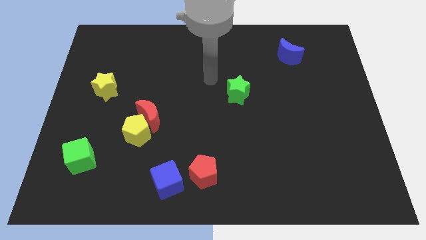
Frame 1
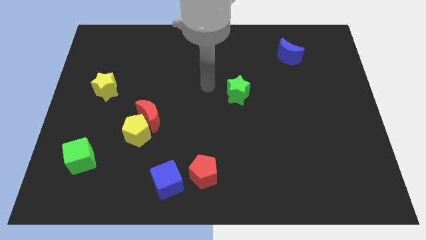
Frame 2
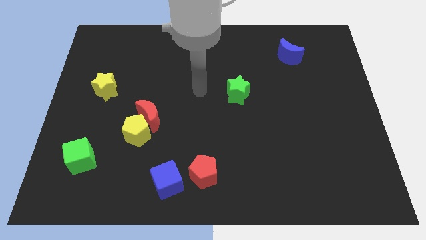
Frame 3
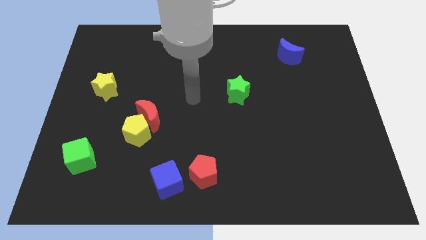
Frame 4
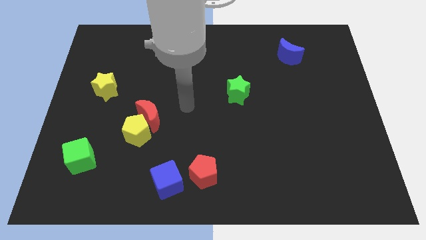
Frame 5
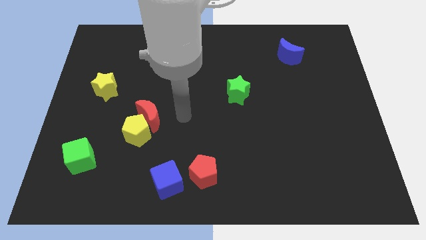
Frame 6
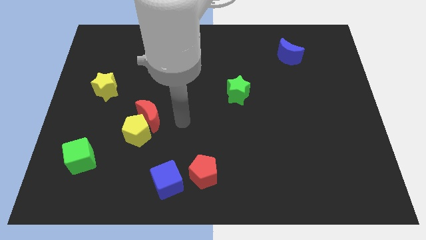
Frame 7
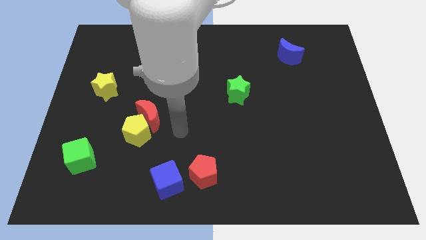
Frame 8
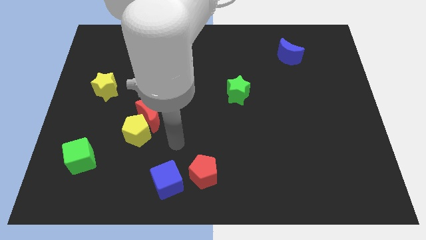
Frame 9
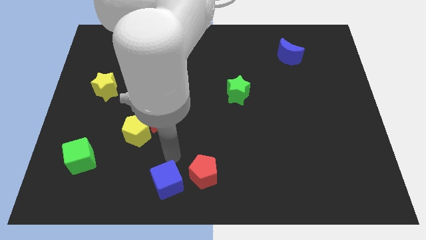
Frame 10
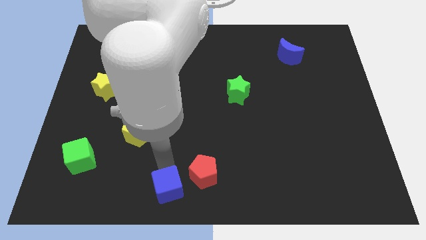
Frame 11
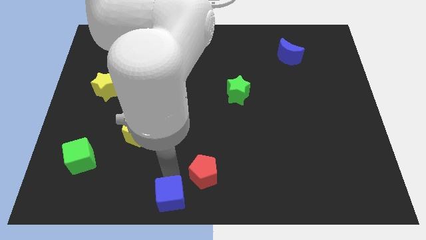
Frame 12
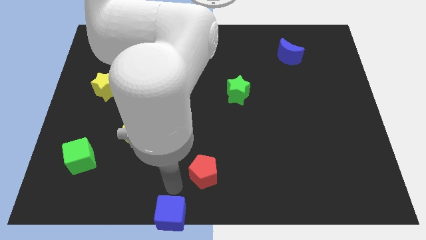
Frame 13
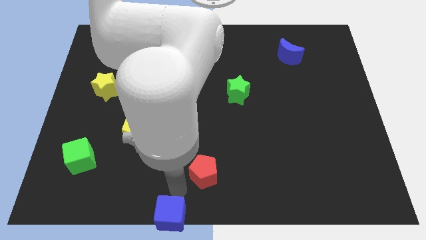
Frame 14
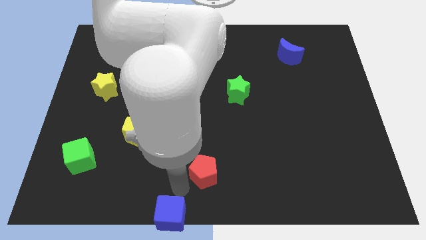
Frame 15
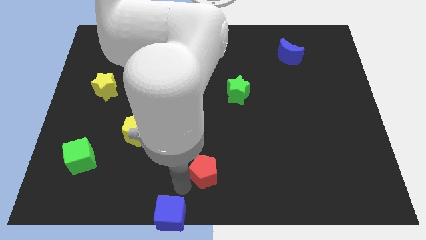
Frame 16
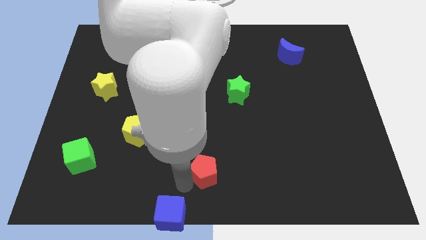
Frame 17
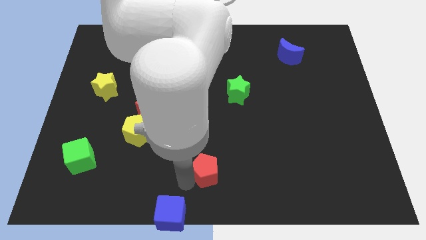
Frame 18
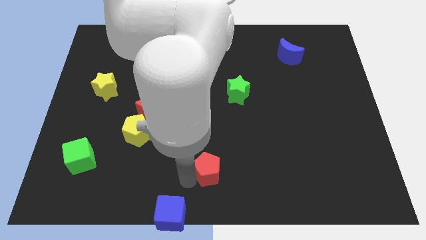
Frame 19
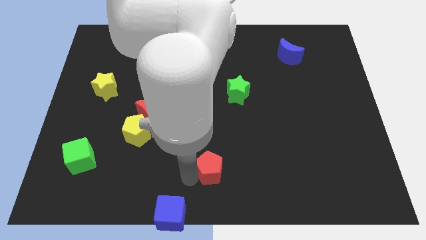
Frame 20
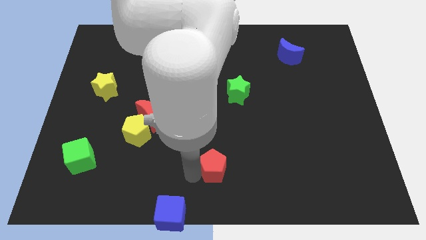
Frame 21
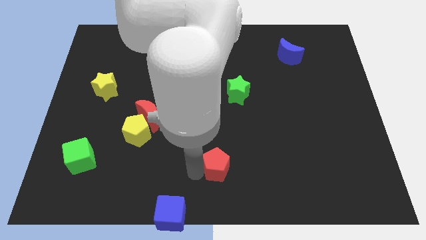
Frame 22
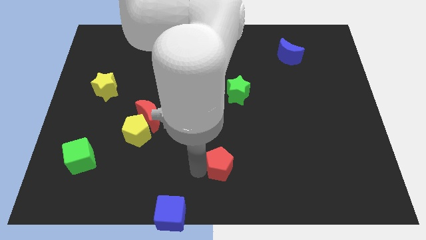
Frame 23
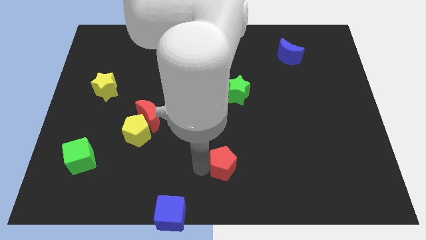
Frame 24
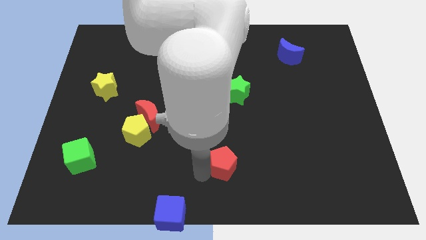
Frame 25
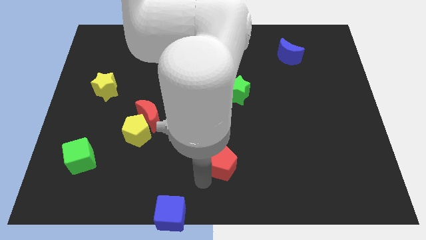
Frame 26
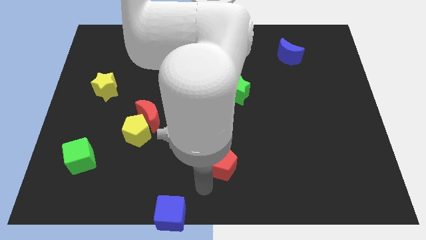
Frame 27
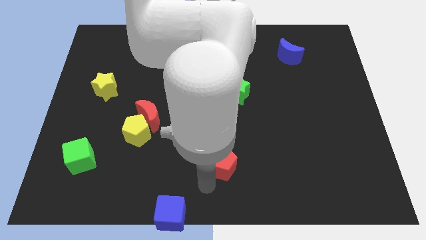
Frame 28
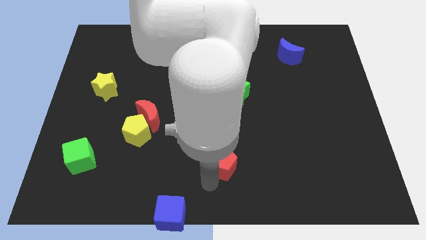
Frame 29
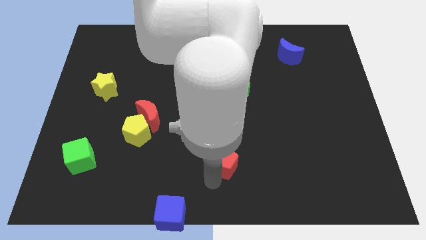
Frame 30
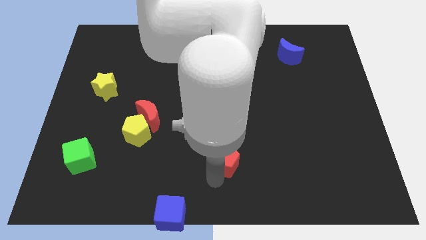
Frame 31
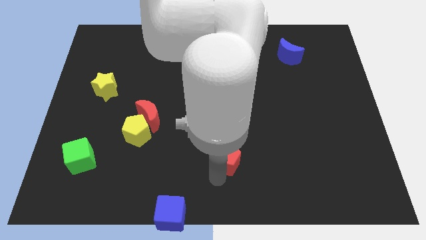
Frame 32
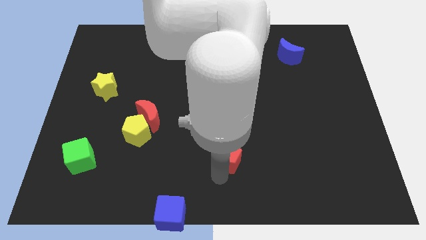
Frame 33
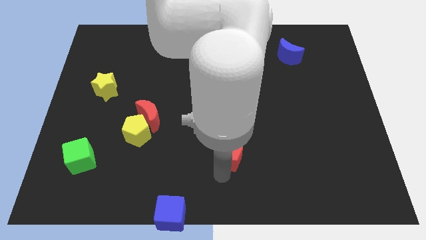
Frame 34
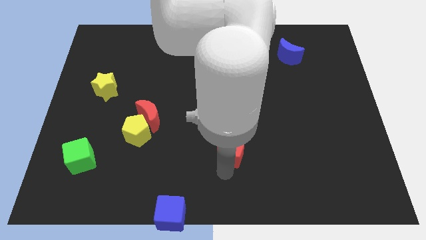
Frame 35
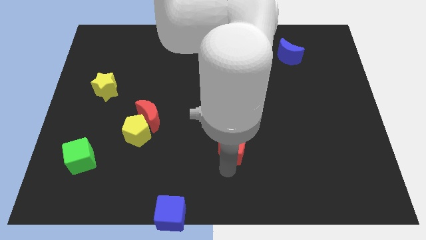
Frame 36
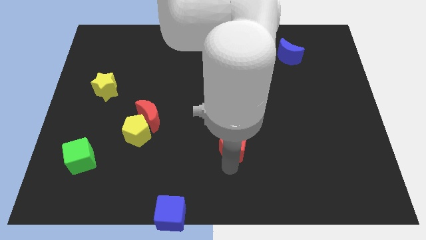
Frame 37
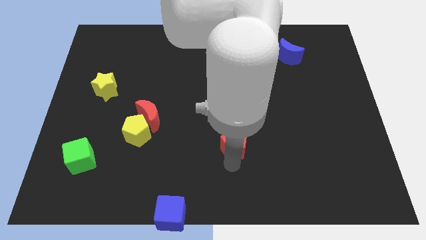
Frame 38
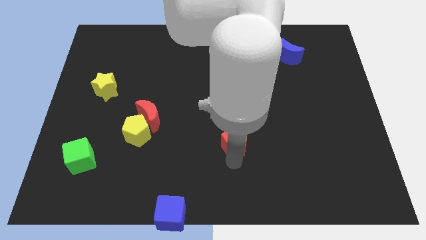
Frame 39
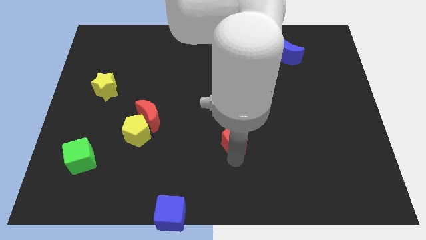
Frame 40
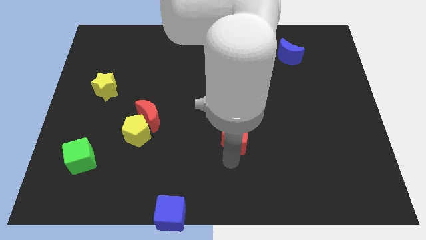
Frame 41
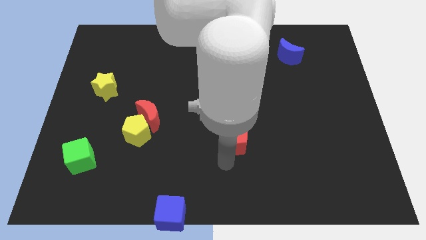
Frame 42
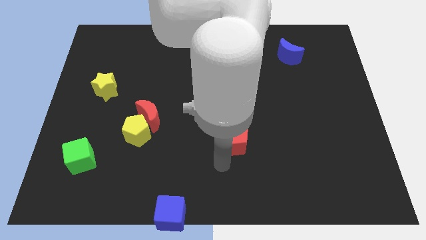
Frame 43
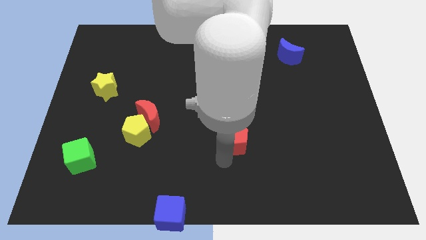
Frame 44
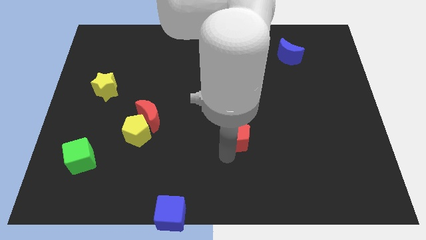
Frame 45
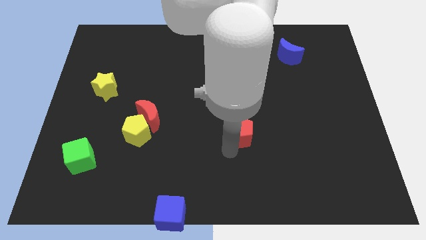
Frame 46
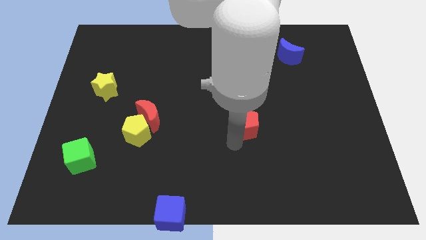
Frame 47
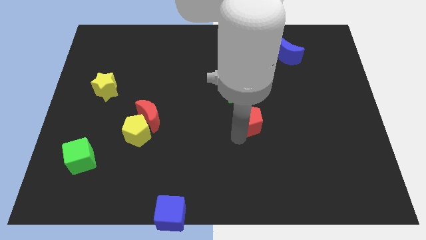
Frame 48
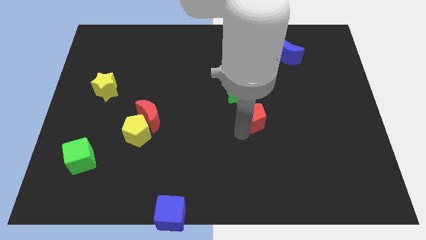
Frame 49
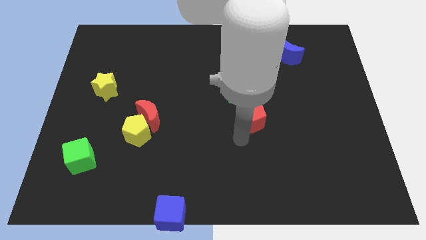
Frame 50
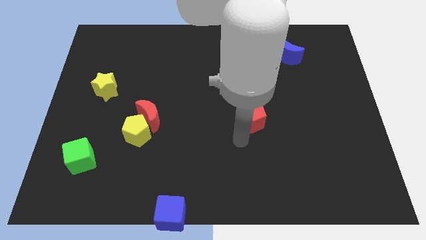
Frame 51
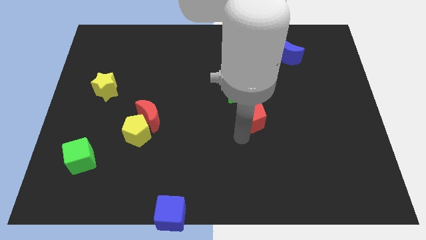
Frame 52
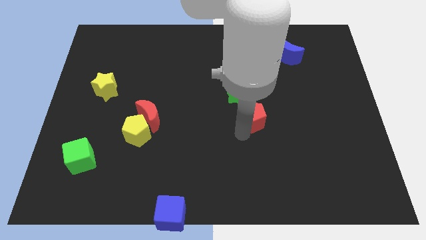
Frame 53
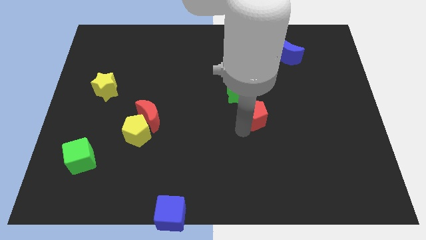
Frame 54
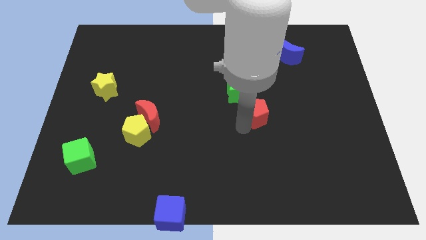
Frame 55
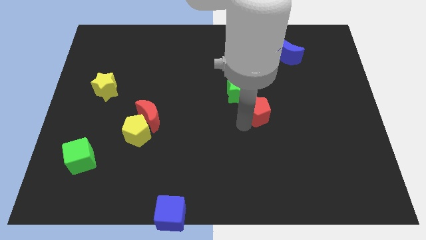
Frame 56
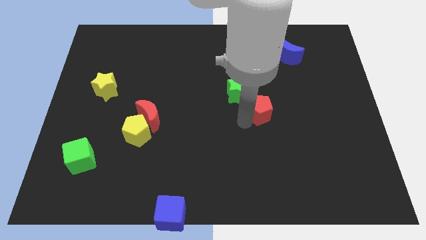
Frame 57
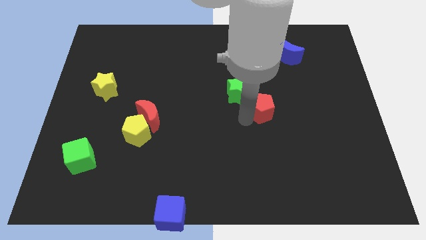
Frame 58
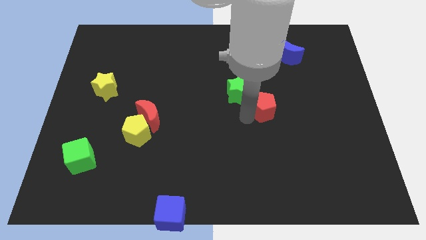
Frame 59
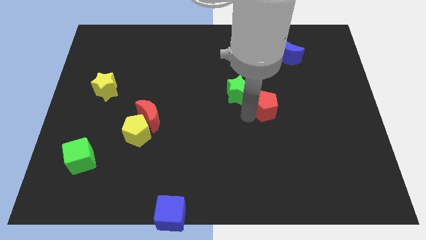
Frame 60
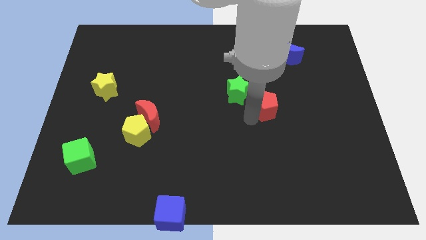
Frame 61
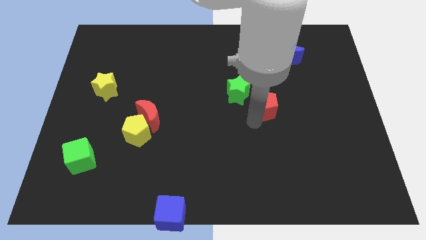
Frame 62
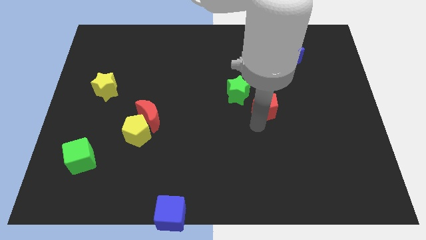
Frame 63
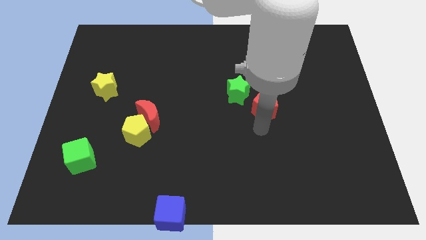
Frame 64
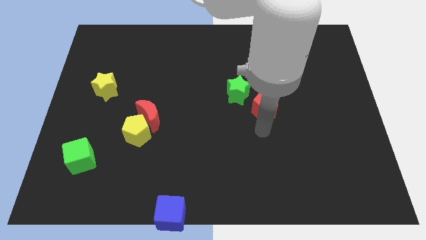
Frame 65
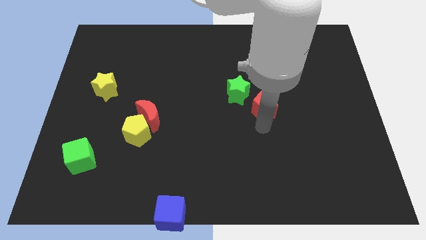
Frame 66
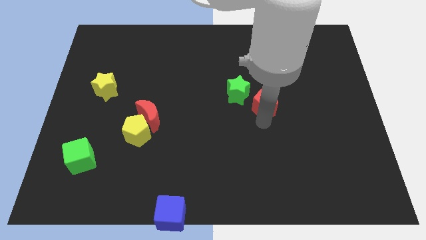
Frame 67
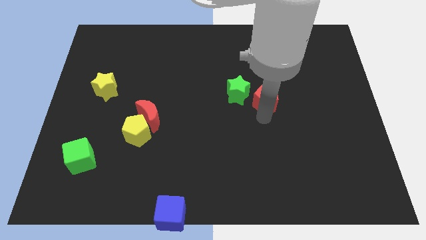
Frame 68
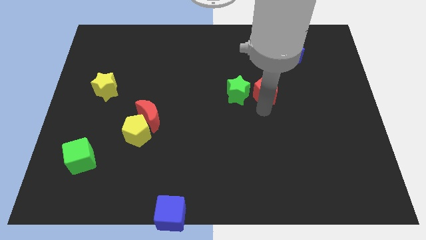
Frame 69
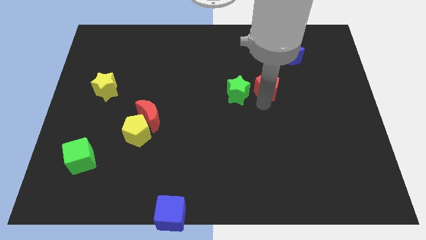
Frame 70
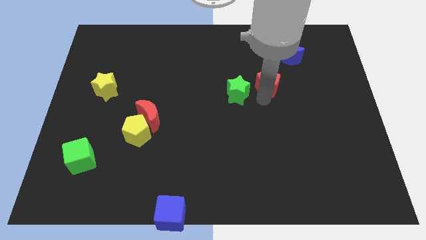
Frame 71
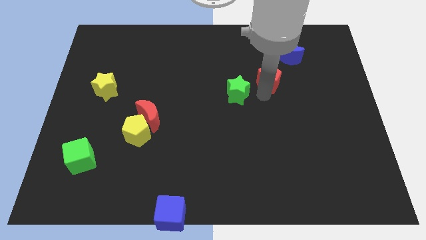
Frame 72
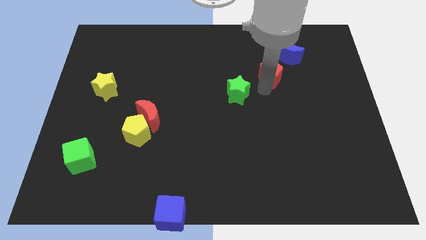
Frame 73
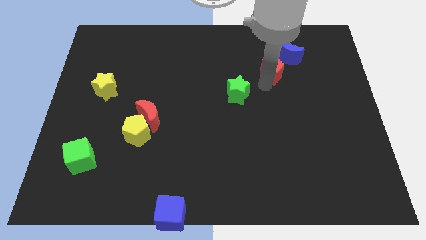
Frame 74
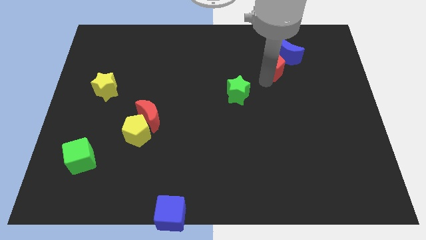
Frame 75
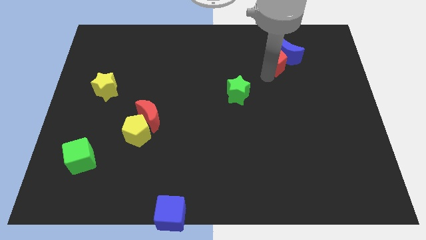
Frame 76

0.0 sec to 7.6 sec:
move the red pentagon towards the blue moon
